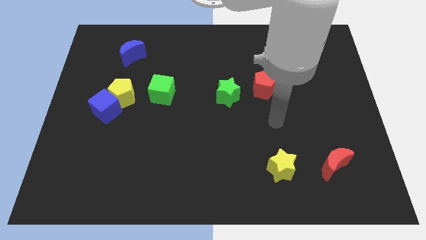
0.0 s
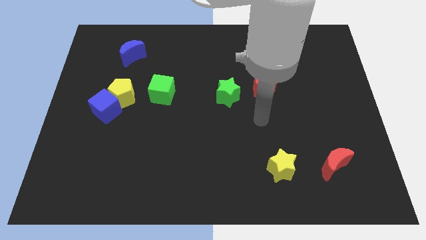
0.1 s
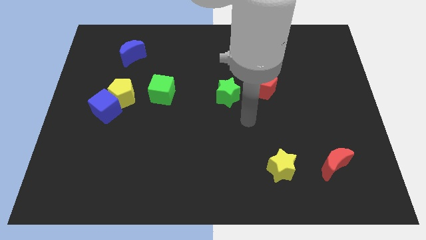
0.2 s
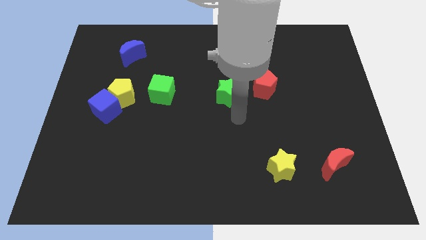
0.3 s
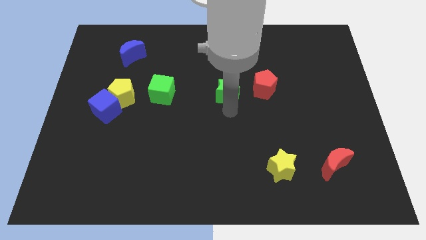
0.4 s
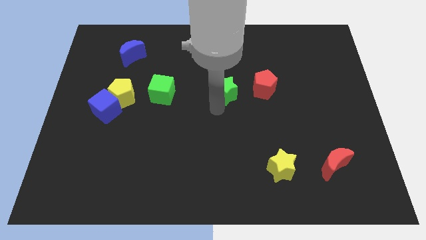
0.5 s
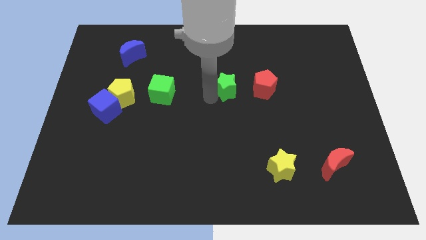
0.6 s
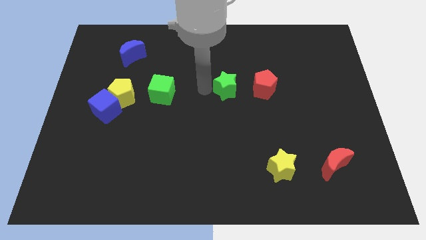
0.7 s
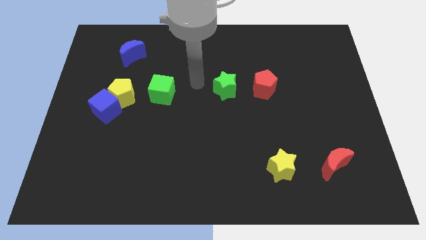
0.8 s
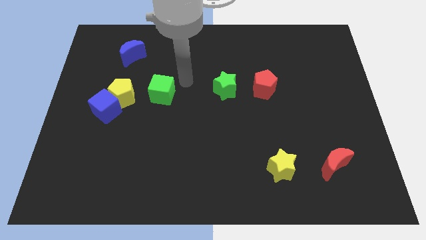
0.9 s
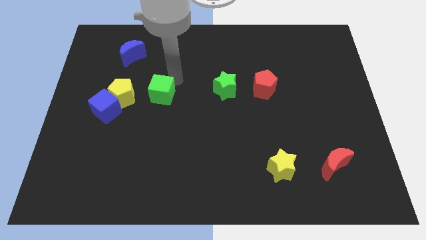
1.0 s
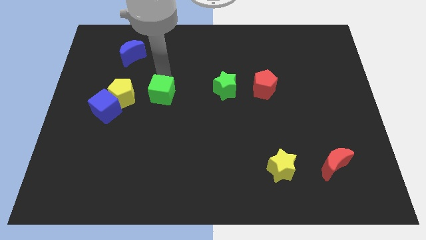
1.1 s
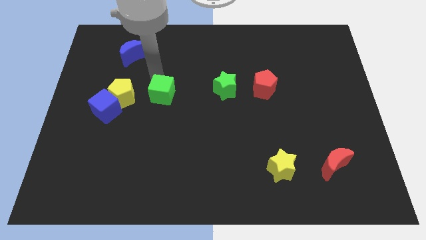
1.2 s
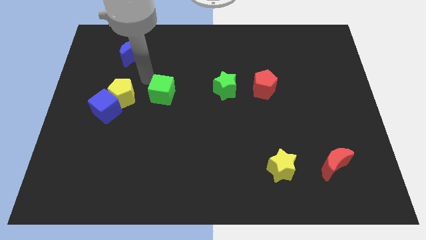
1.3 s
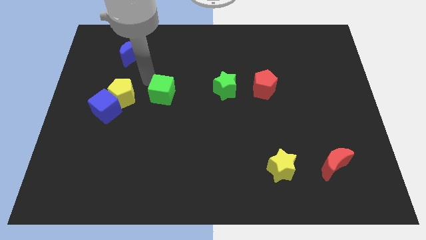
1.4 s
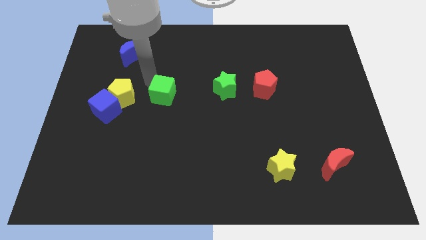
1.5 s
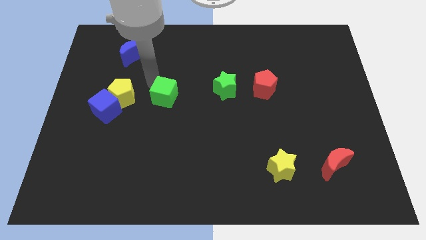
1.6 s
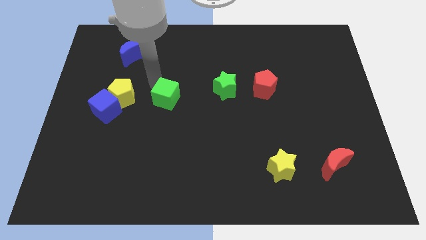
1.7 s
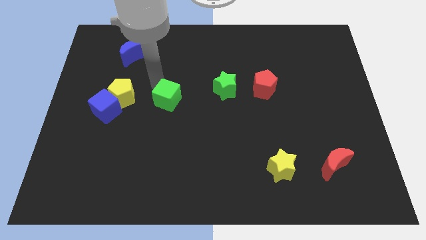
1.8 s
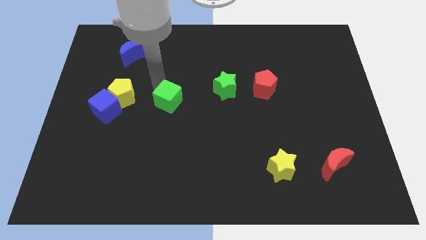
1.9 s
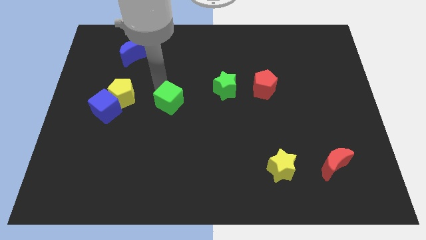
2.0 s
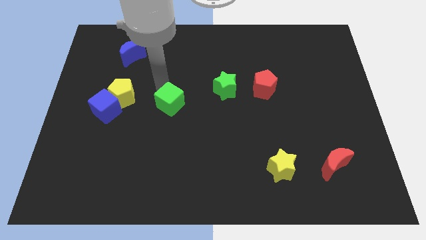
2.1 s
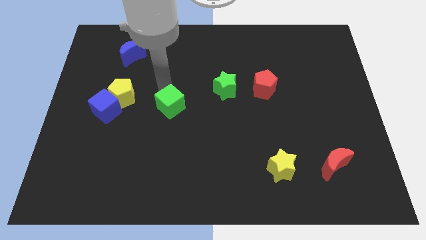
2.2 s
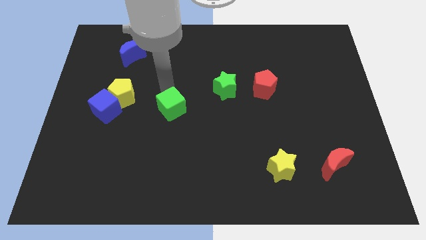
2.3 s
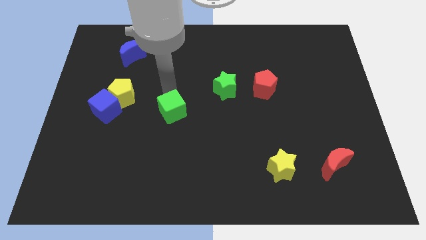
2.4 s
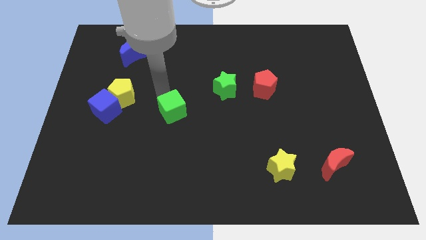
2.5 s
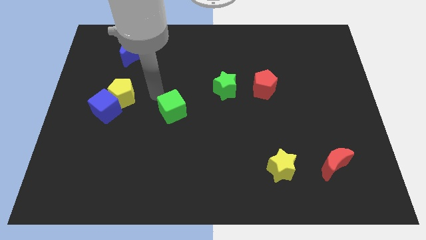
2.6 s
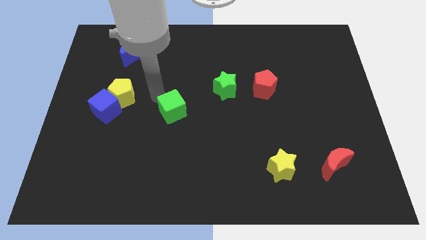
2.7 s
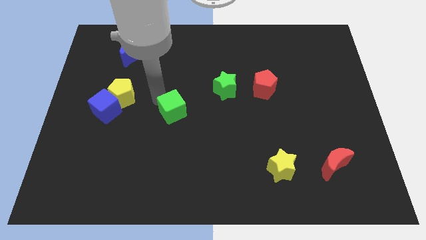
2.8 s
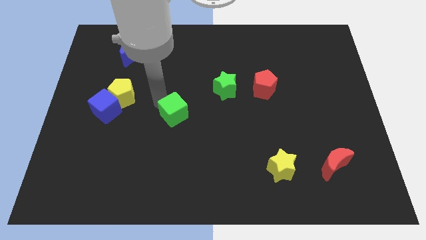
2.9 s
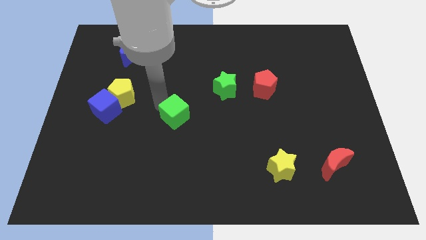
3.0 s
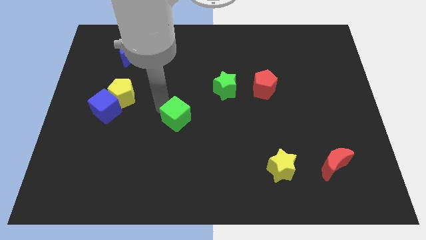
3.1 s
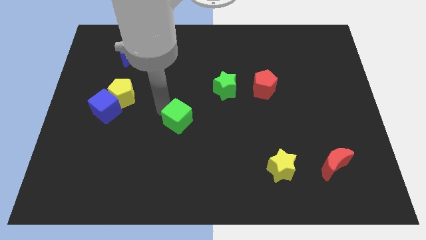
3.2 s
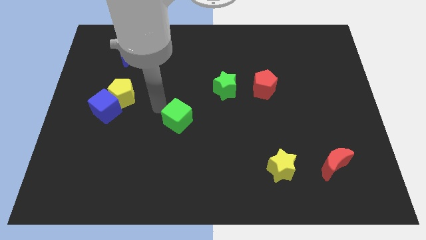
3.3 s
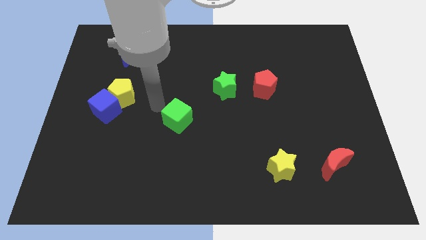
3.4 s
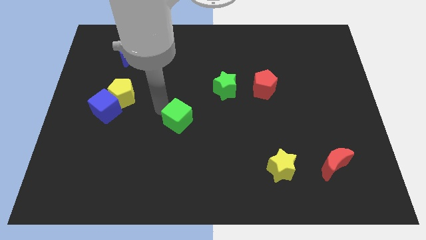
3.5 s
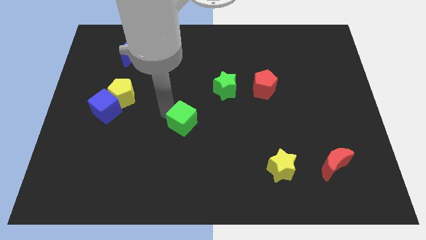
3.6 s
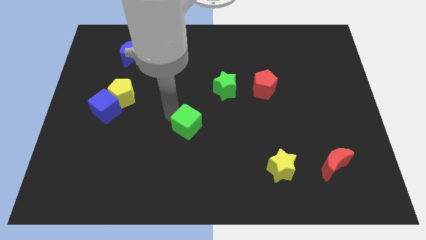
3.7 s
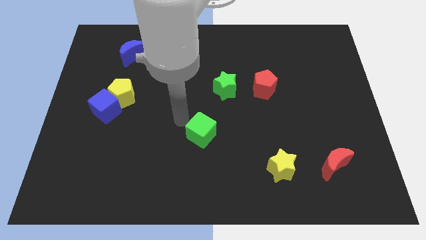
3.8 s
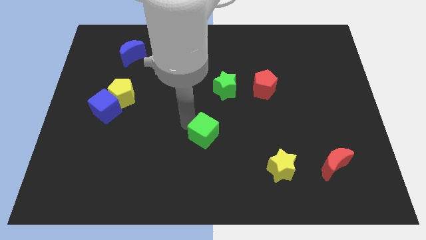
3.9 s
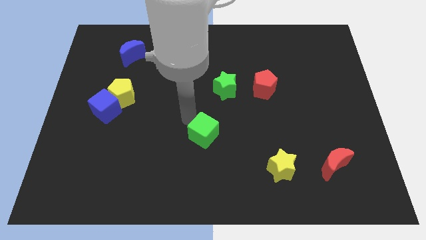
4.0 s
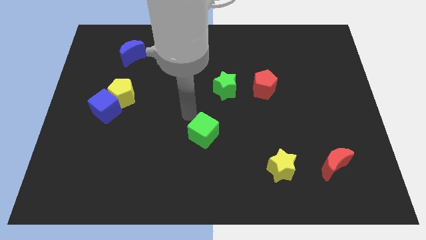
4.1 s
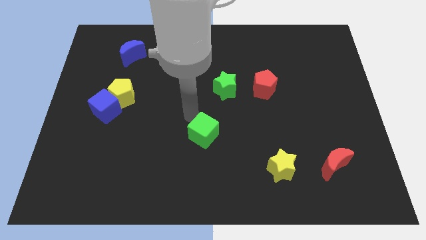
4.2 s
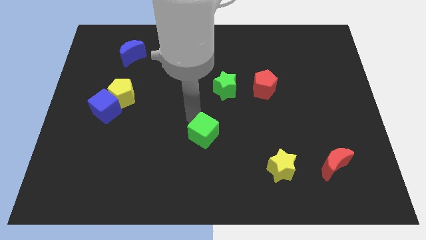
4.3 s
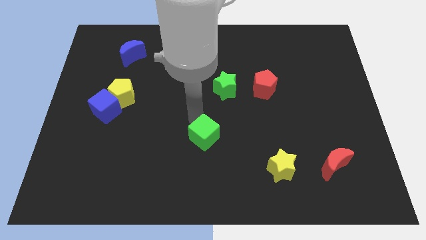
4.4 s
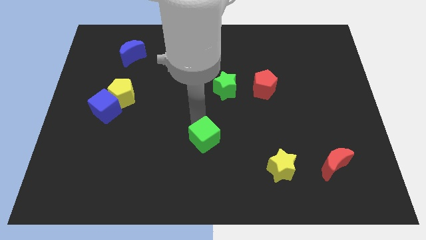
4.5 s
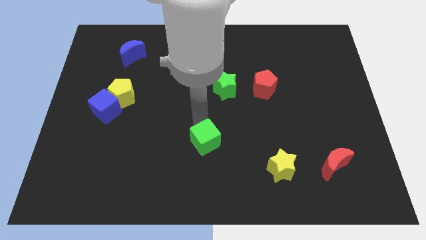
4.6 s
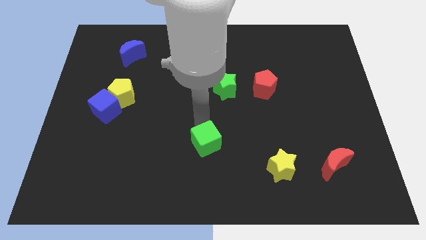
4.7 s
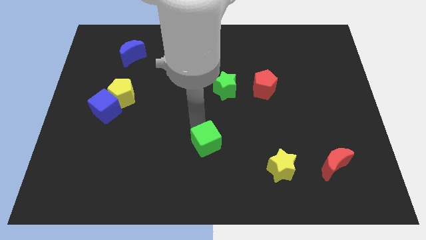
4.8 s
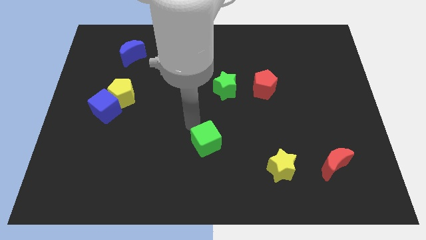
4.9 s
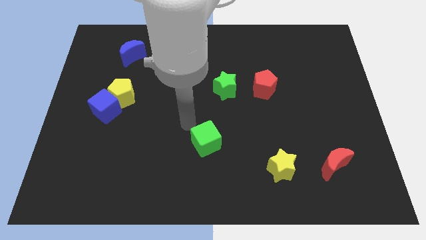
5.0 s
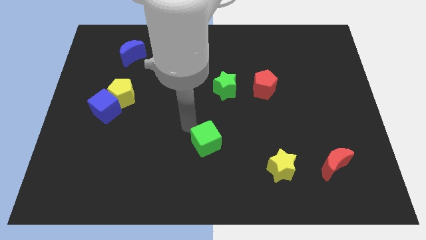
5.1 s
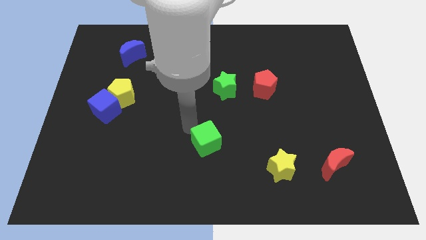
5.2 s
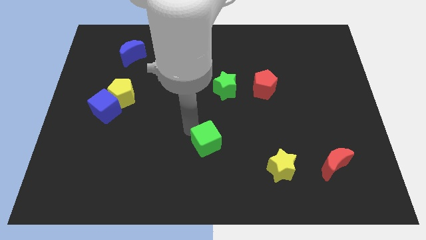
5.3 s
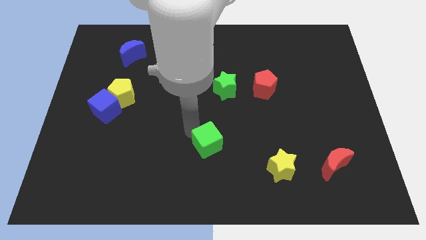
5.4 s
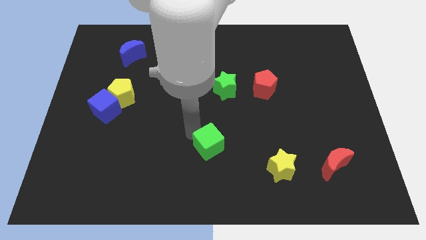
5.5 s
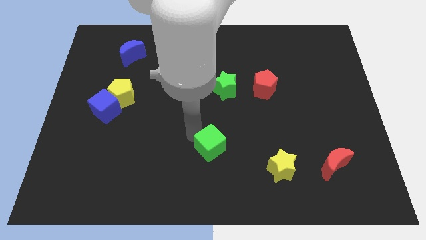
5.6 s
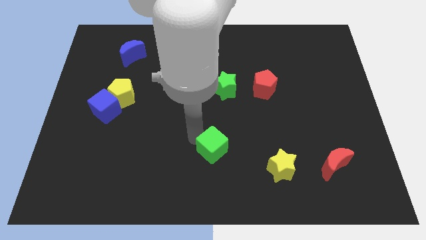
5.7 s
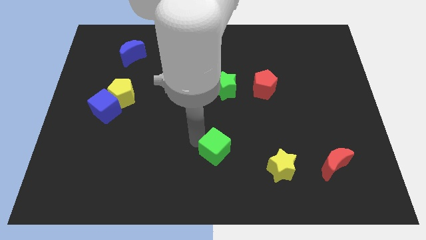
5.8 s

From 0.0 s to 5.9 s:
push the green cube diagonally down and right

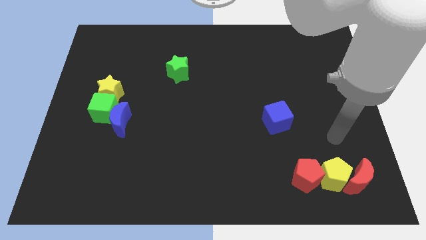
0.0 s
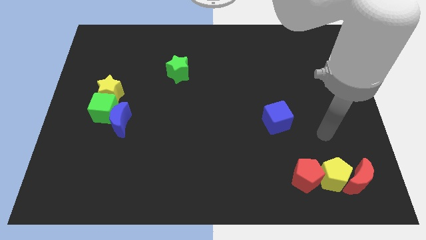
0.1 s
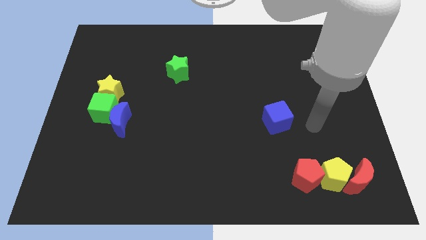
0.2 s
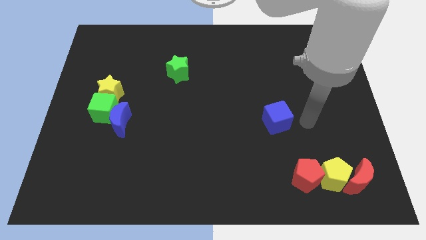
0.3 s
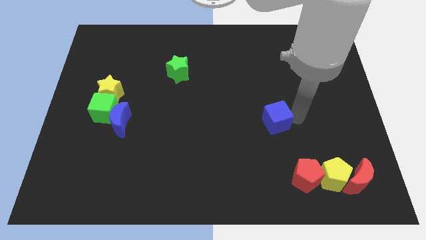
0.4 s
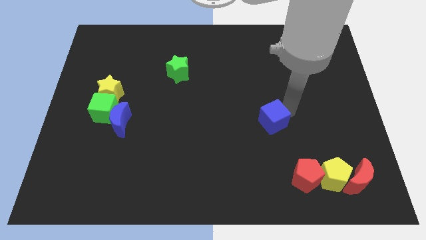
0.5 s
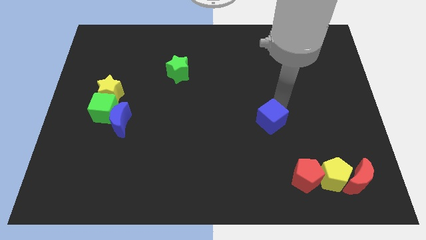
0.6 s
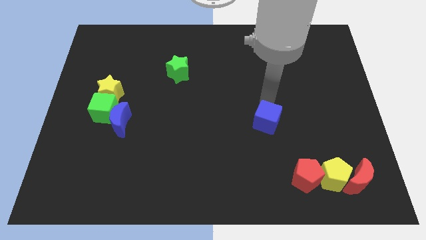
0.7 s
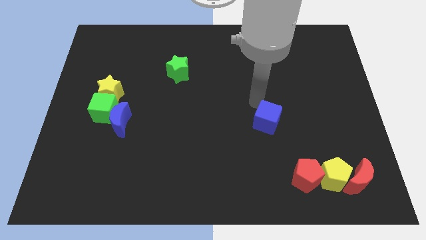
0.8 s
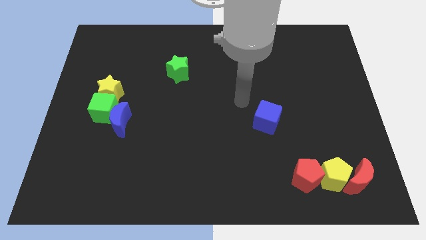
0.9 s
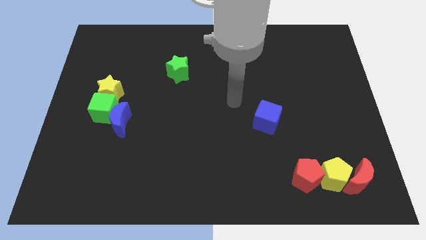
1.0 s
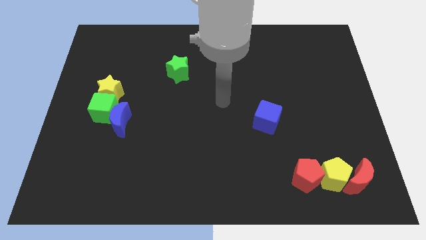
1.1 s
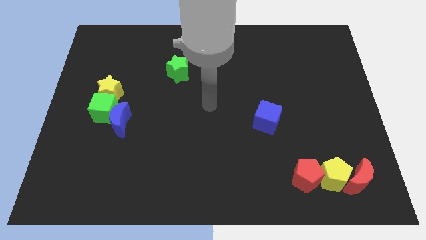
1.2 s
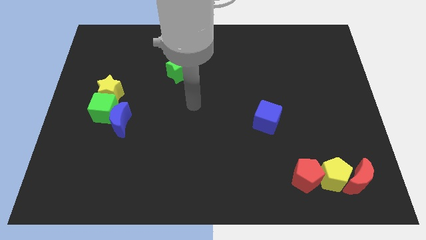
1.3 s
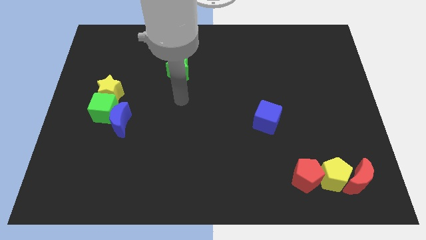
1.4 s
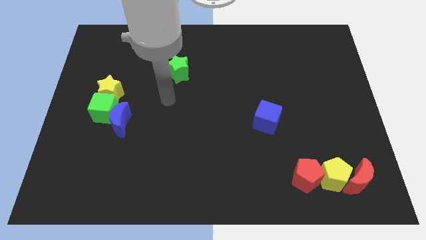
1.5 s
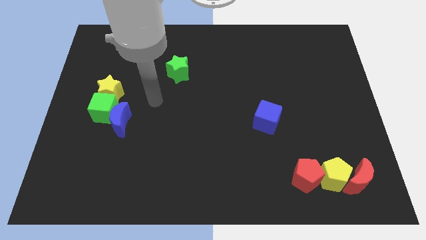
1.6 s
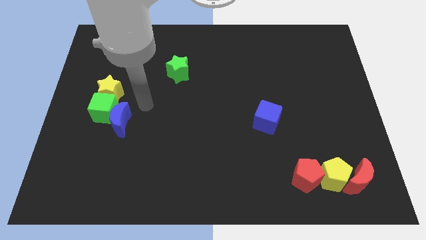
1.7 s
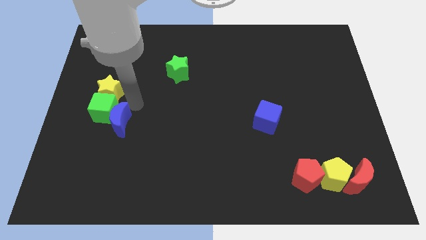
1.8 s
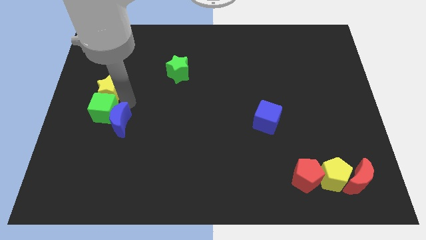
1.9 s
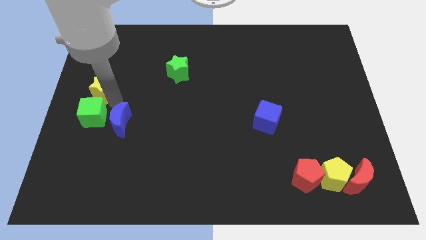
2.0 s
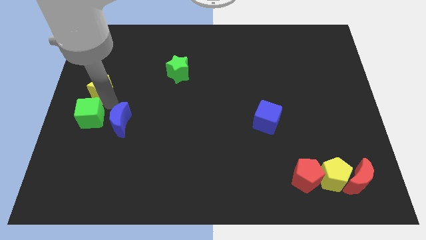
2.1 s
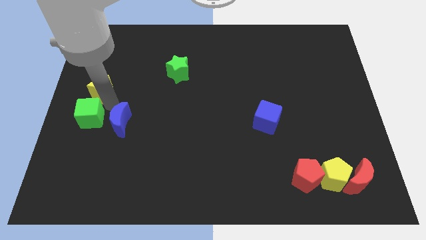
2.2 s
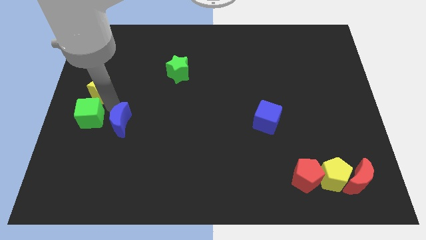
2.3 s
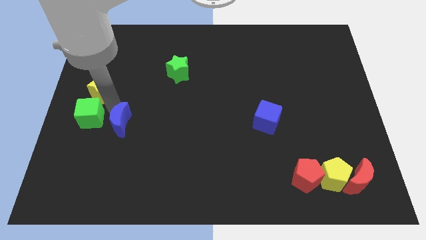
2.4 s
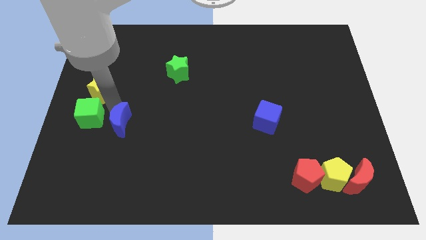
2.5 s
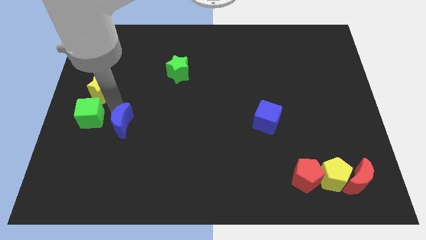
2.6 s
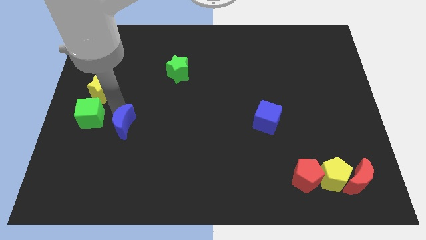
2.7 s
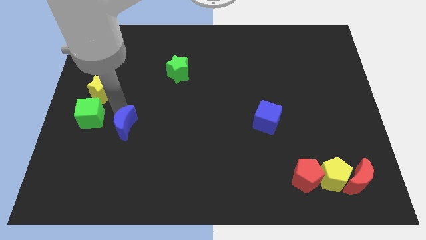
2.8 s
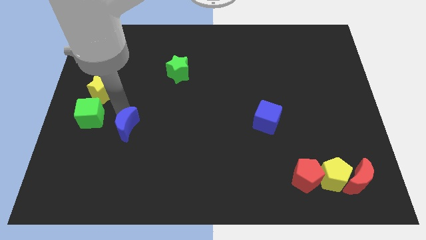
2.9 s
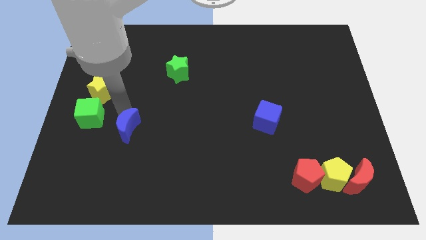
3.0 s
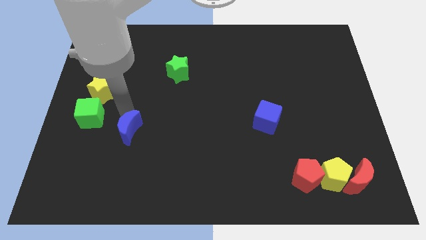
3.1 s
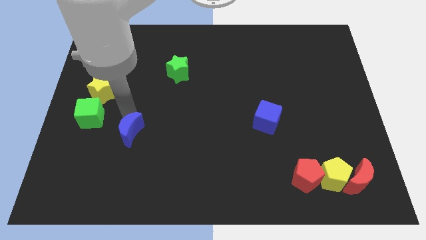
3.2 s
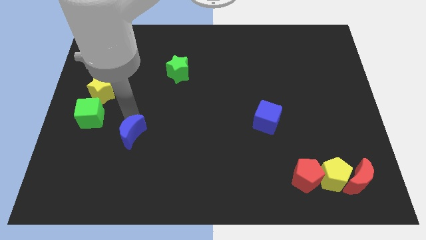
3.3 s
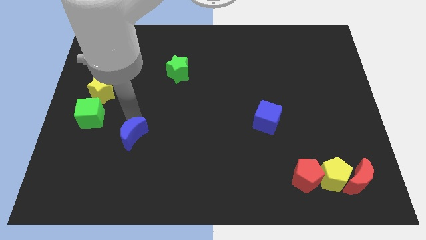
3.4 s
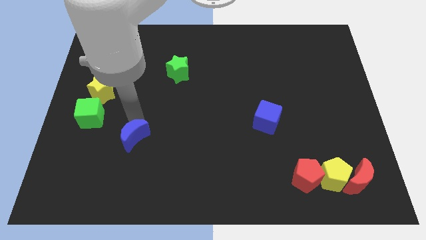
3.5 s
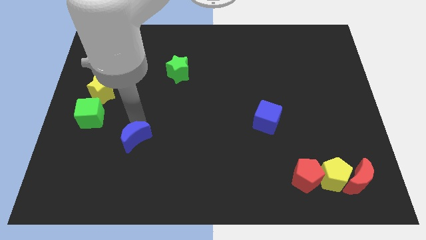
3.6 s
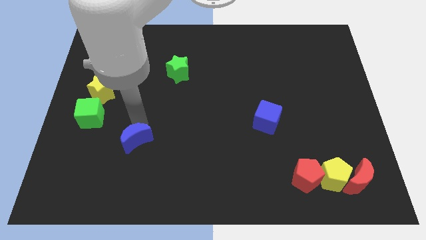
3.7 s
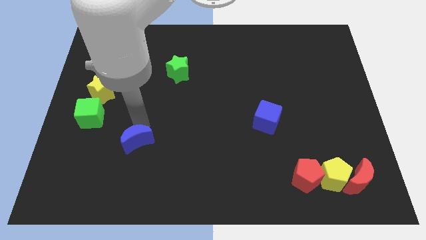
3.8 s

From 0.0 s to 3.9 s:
slightly push the blue moon downwards and then to the right
